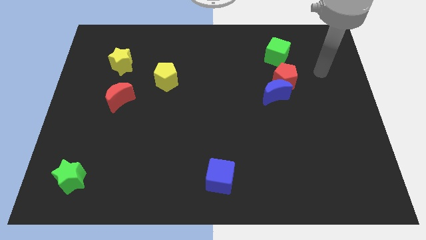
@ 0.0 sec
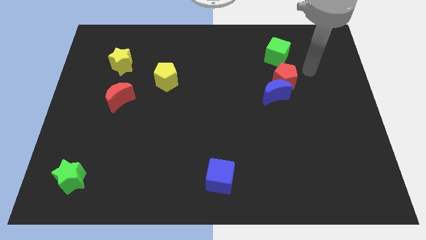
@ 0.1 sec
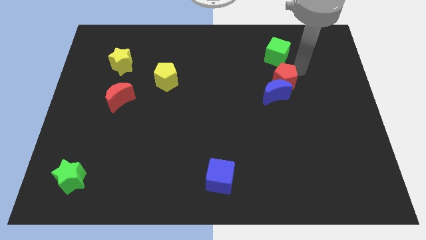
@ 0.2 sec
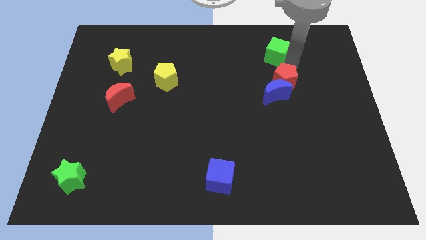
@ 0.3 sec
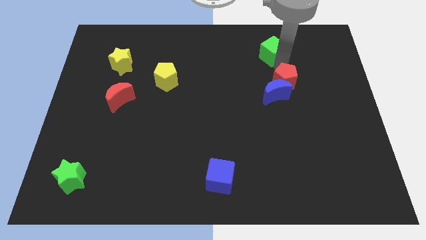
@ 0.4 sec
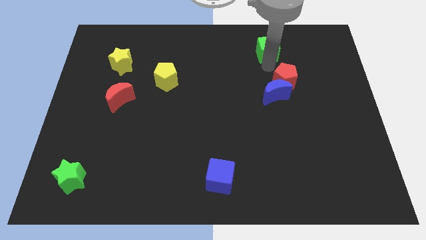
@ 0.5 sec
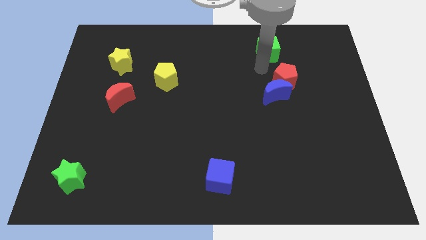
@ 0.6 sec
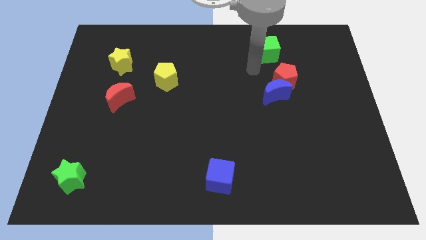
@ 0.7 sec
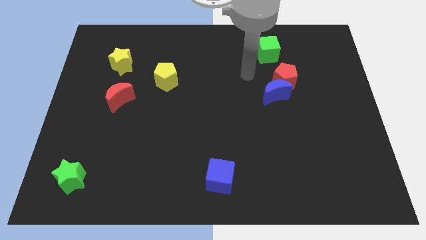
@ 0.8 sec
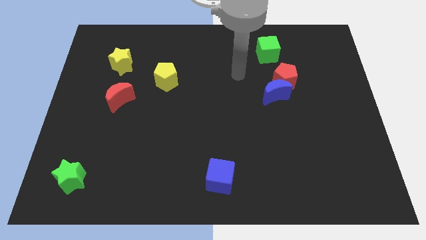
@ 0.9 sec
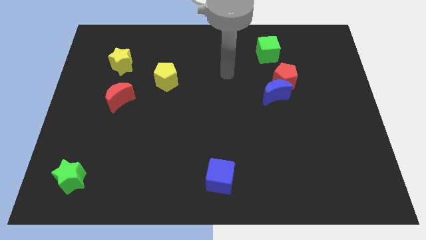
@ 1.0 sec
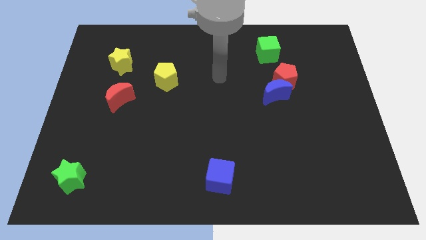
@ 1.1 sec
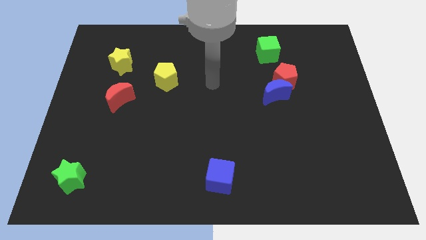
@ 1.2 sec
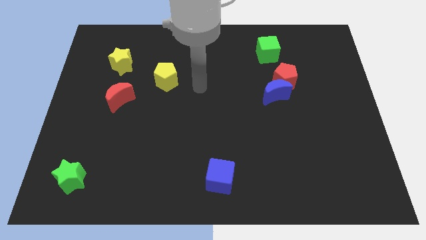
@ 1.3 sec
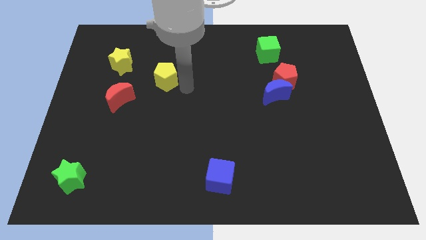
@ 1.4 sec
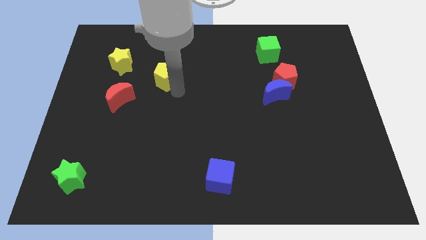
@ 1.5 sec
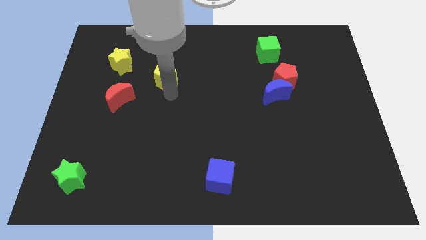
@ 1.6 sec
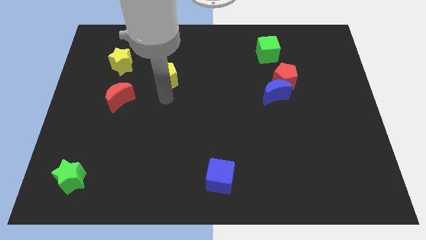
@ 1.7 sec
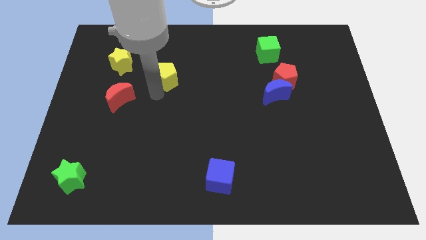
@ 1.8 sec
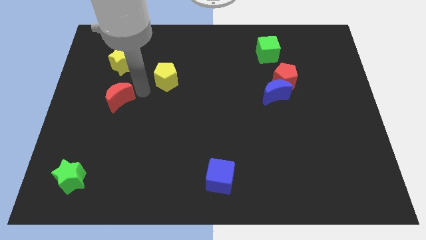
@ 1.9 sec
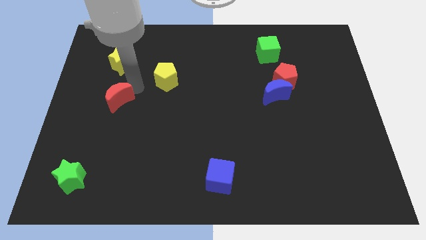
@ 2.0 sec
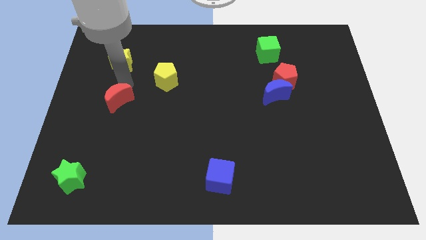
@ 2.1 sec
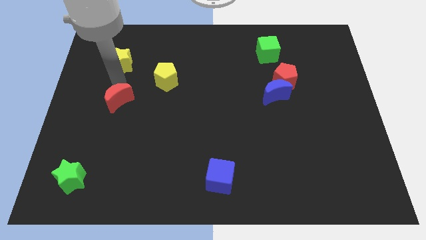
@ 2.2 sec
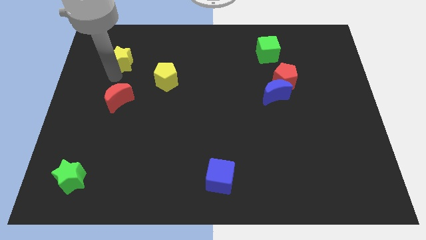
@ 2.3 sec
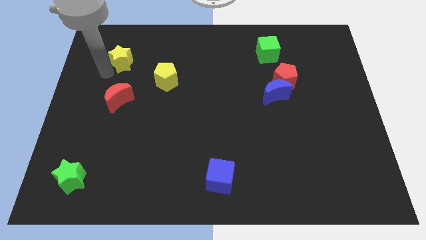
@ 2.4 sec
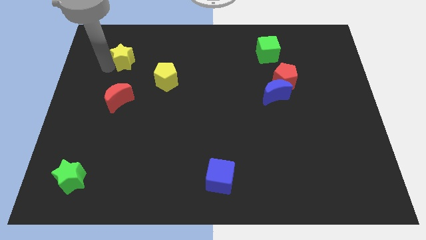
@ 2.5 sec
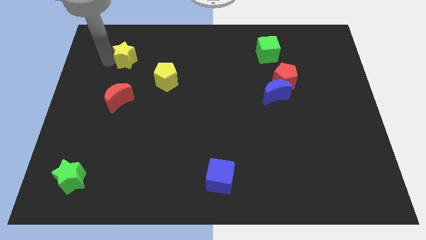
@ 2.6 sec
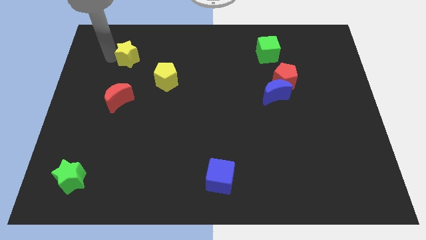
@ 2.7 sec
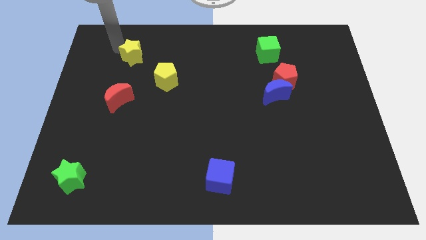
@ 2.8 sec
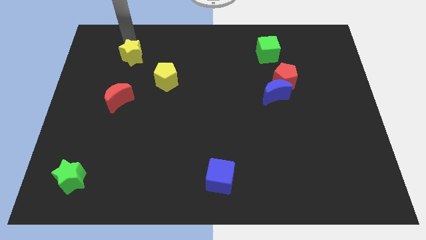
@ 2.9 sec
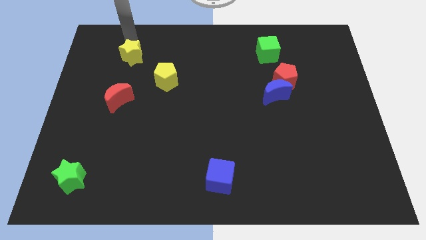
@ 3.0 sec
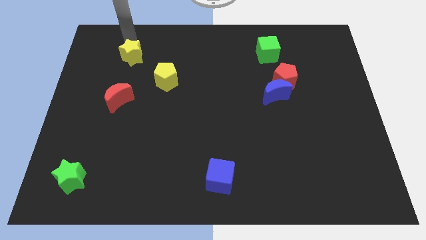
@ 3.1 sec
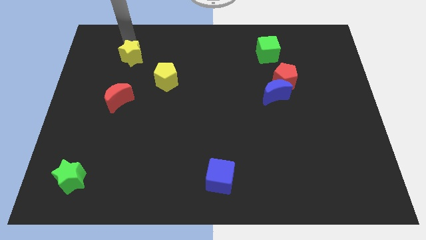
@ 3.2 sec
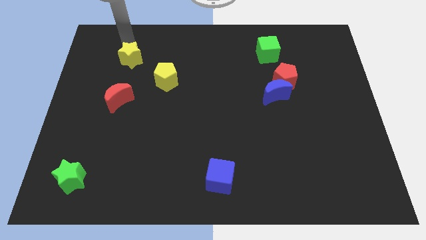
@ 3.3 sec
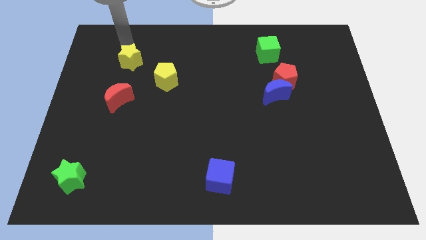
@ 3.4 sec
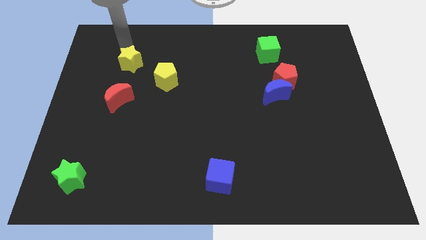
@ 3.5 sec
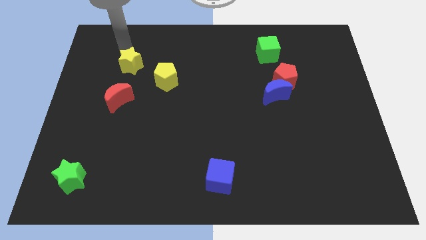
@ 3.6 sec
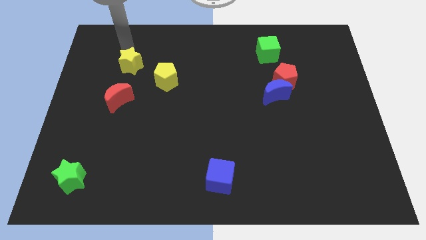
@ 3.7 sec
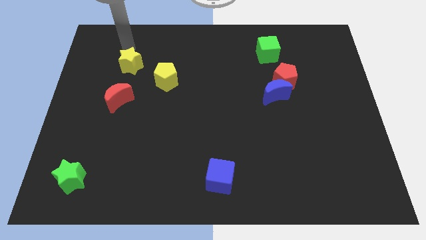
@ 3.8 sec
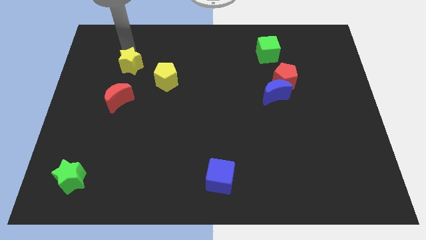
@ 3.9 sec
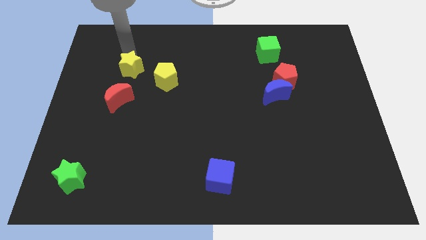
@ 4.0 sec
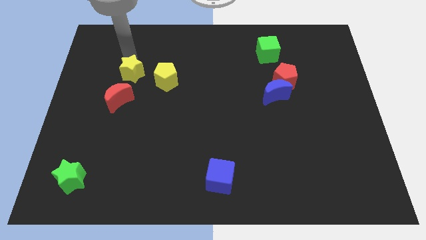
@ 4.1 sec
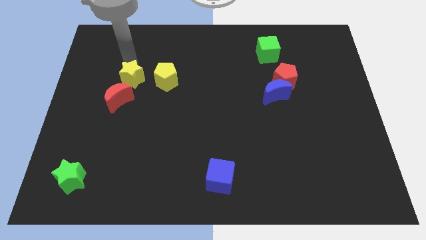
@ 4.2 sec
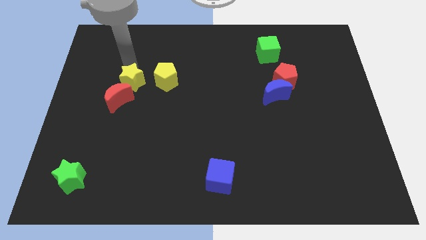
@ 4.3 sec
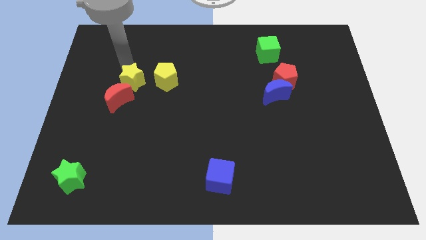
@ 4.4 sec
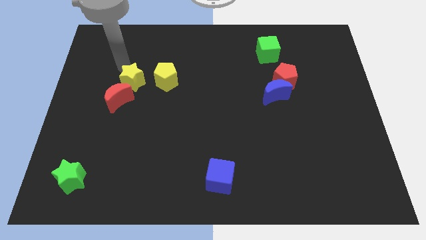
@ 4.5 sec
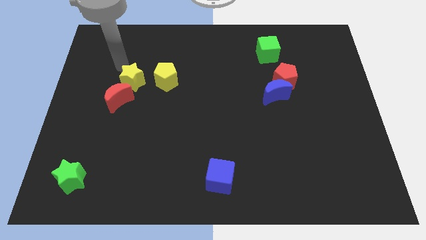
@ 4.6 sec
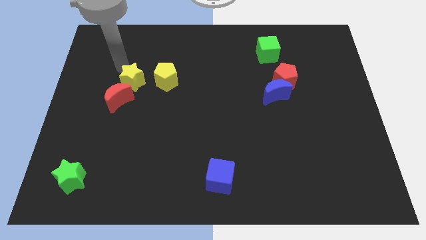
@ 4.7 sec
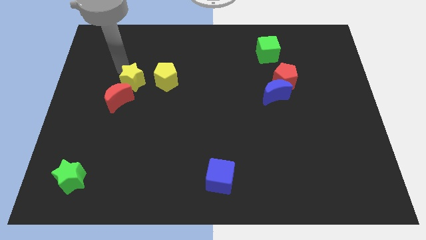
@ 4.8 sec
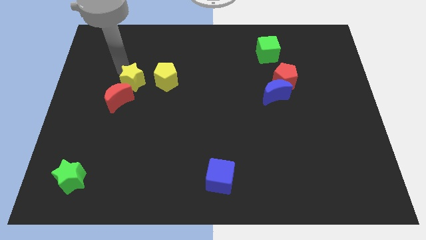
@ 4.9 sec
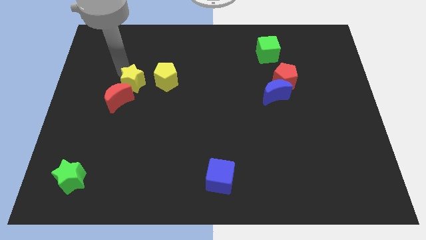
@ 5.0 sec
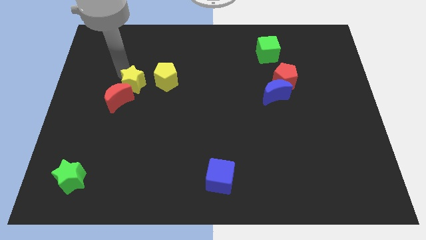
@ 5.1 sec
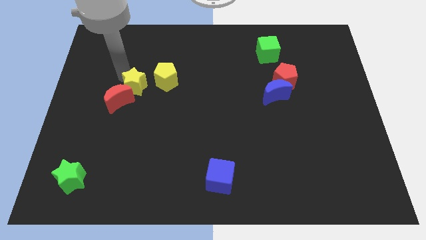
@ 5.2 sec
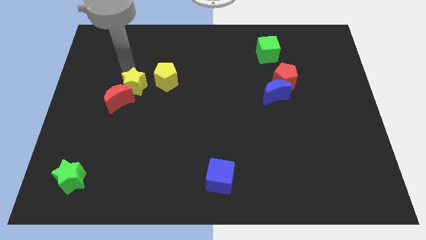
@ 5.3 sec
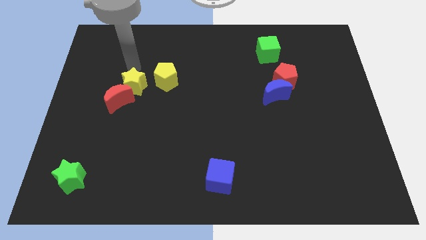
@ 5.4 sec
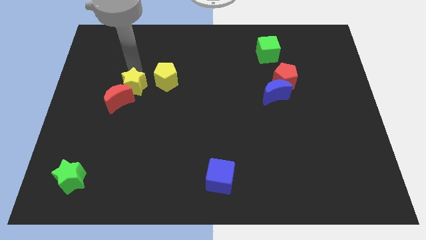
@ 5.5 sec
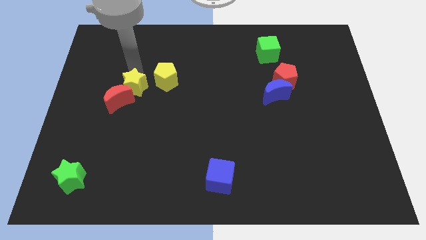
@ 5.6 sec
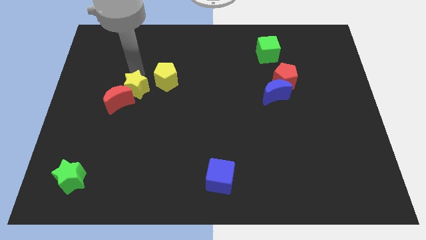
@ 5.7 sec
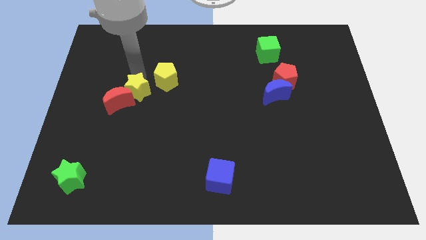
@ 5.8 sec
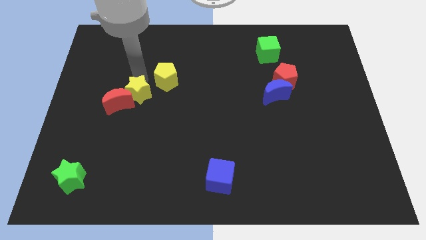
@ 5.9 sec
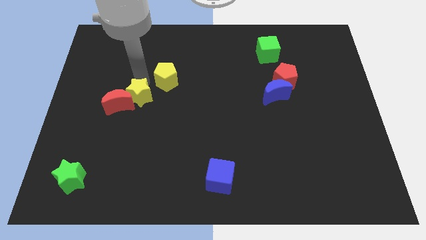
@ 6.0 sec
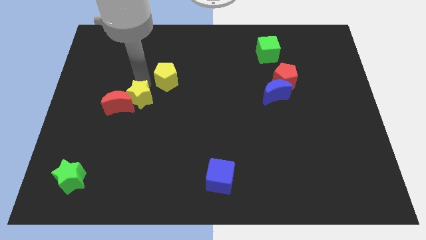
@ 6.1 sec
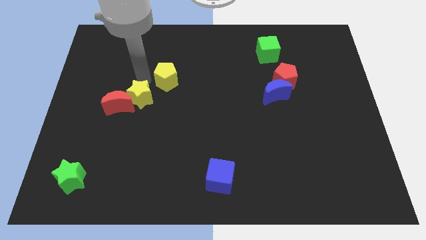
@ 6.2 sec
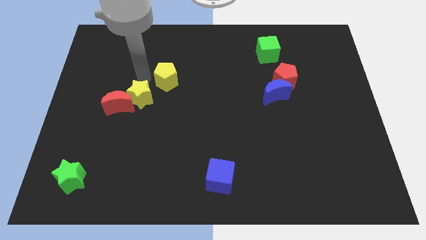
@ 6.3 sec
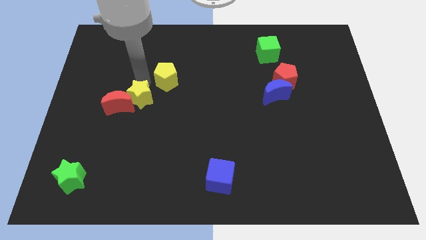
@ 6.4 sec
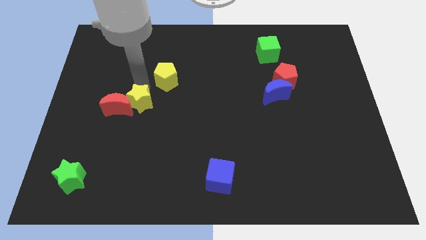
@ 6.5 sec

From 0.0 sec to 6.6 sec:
push the yellow star diagonally down and to the right of the red moon

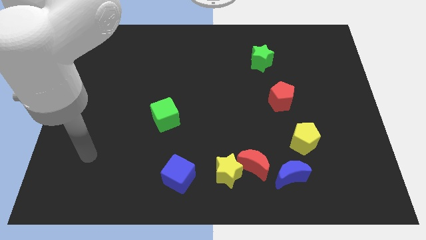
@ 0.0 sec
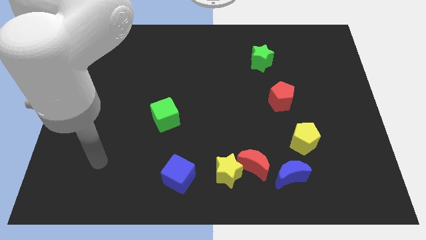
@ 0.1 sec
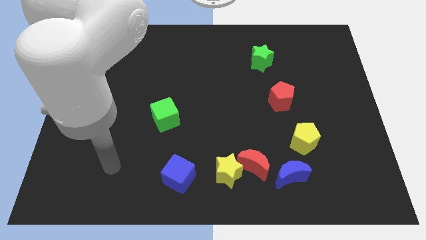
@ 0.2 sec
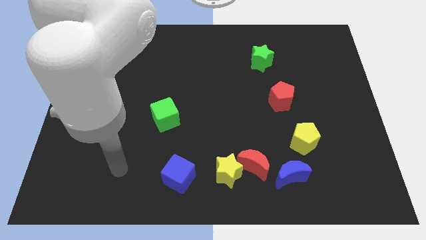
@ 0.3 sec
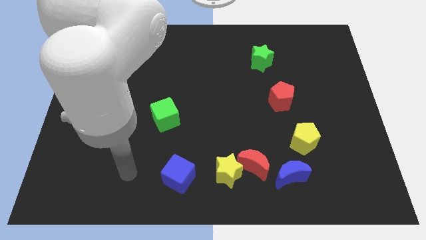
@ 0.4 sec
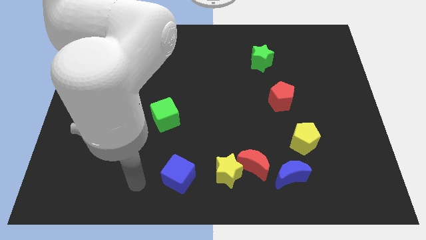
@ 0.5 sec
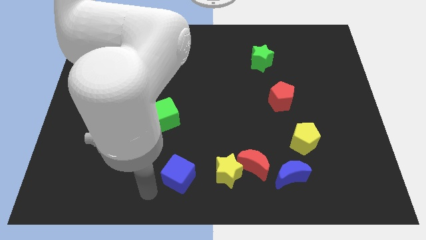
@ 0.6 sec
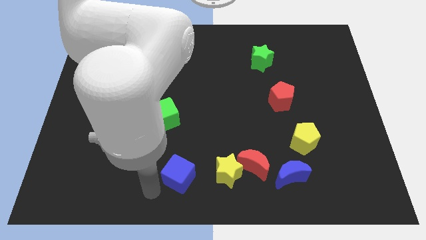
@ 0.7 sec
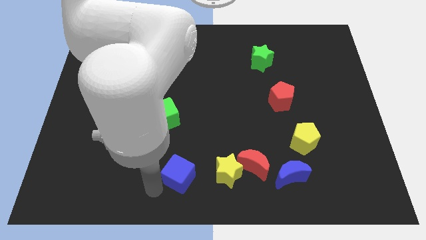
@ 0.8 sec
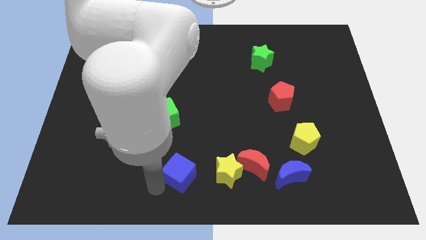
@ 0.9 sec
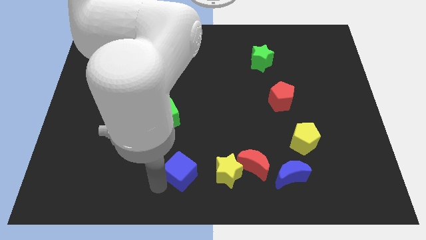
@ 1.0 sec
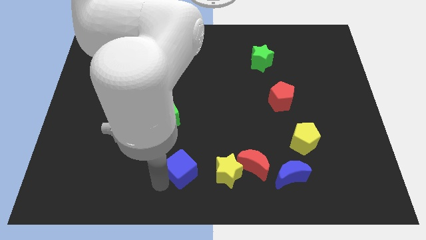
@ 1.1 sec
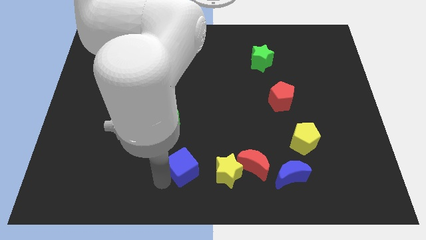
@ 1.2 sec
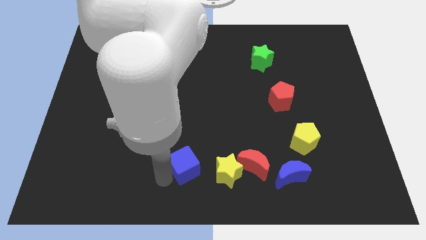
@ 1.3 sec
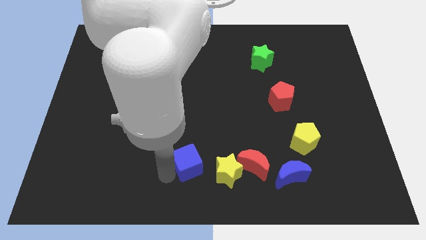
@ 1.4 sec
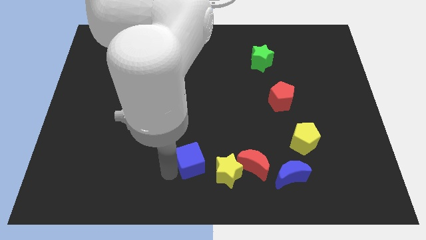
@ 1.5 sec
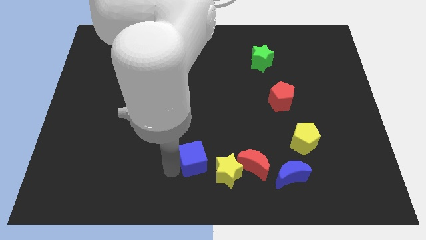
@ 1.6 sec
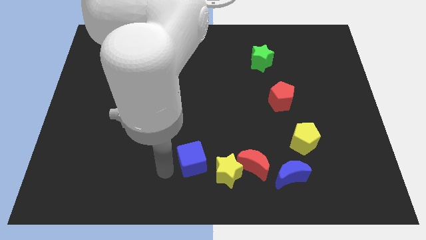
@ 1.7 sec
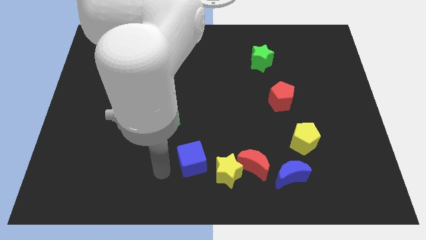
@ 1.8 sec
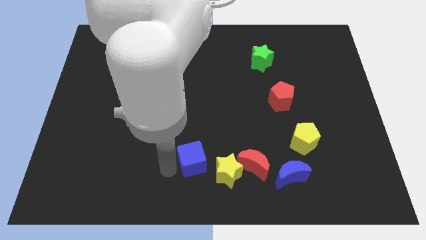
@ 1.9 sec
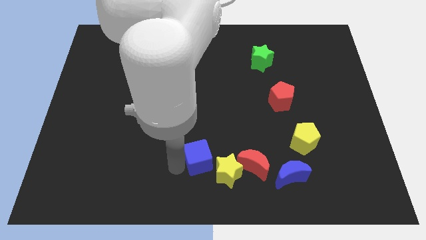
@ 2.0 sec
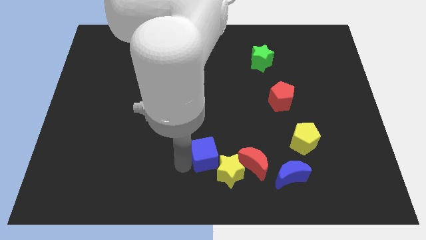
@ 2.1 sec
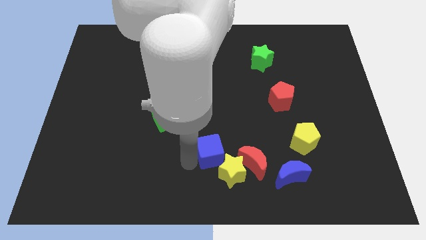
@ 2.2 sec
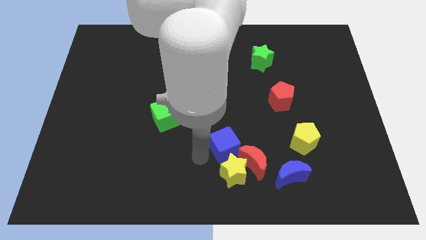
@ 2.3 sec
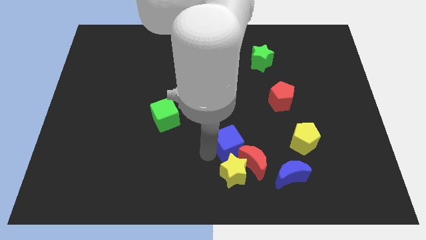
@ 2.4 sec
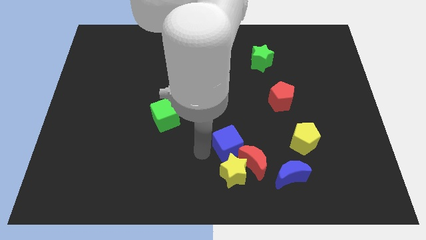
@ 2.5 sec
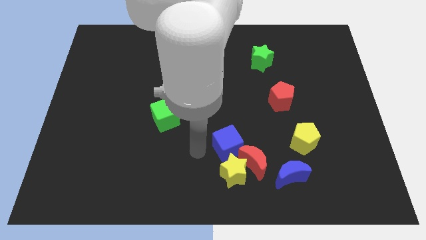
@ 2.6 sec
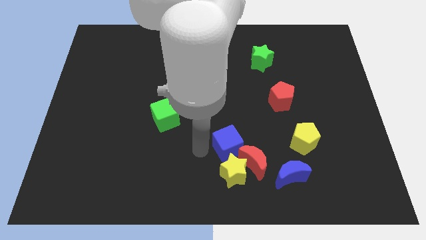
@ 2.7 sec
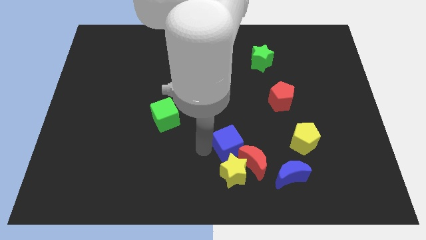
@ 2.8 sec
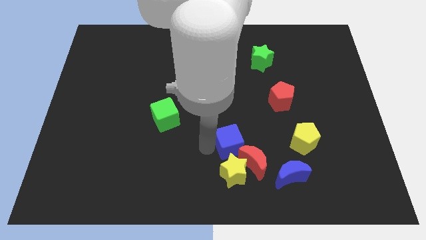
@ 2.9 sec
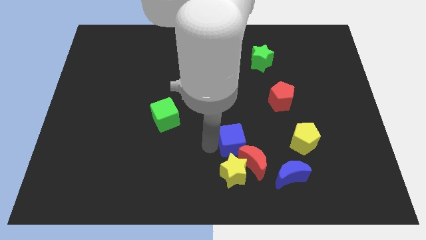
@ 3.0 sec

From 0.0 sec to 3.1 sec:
slide the blue cube just left of the yellow pentagon
